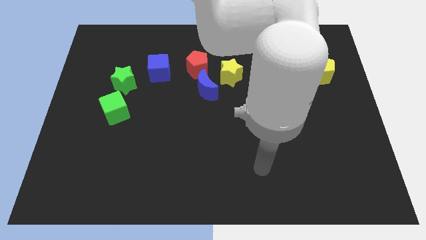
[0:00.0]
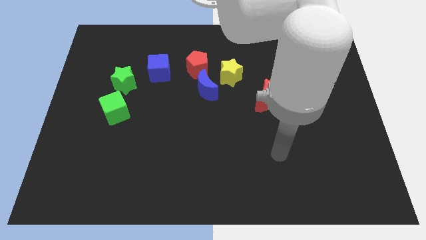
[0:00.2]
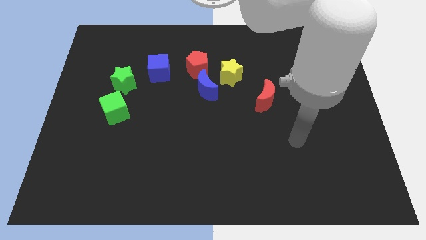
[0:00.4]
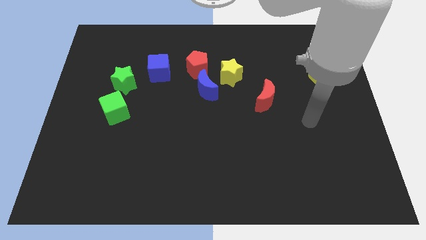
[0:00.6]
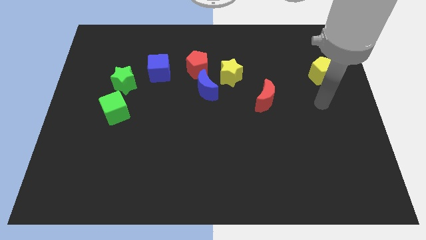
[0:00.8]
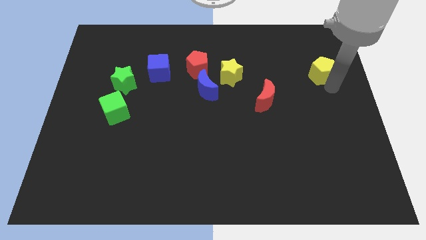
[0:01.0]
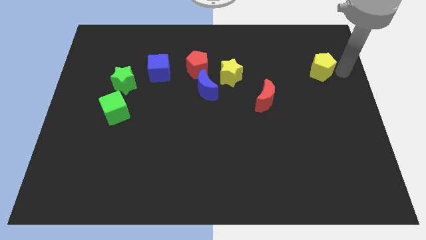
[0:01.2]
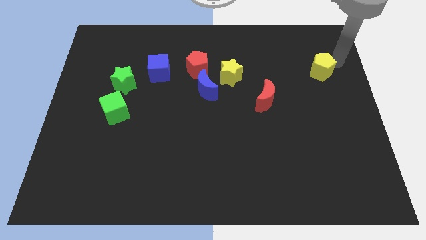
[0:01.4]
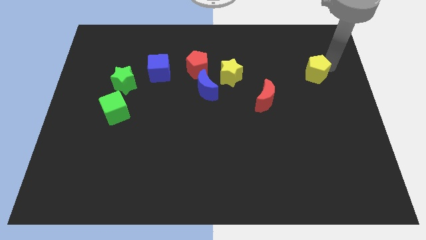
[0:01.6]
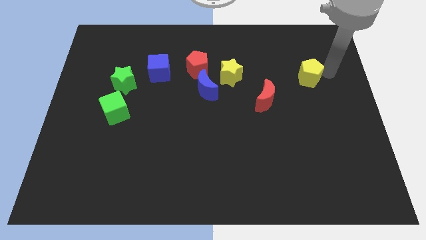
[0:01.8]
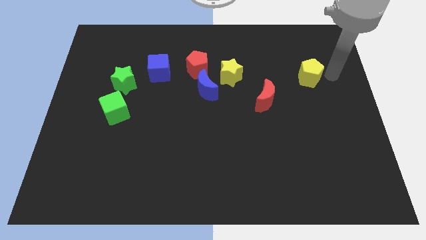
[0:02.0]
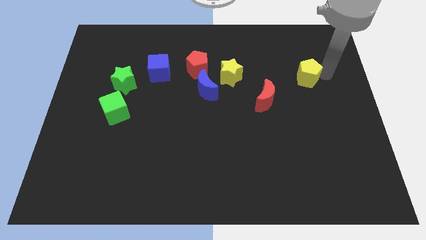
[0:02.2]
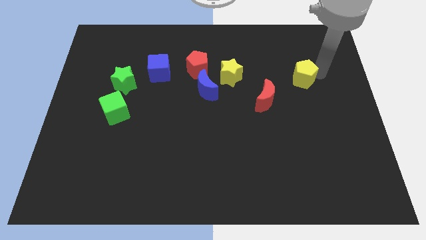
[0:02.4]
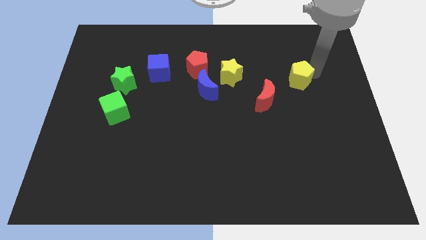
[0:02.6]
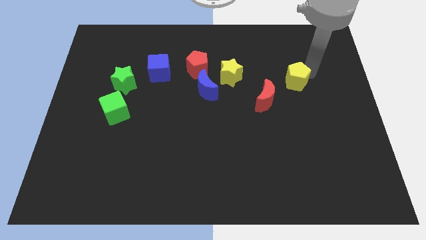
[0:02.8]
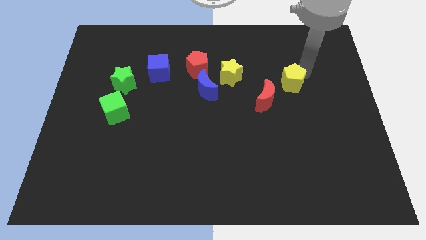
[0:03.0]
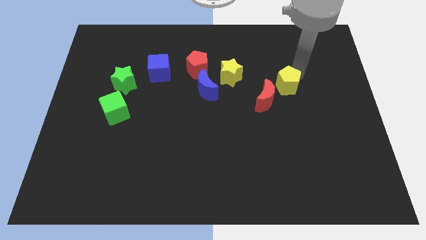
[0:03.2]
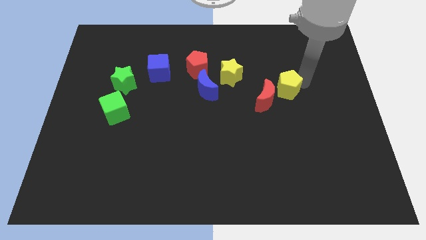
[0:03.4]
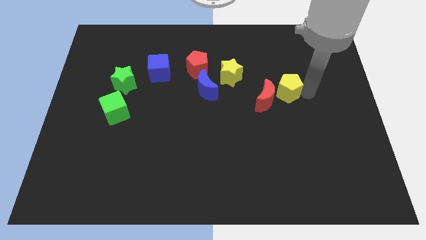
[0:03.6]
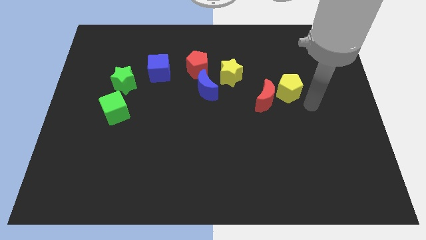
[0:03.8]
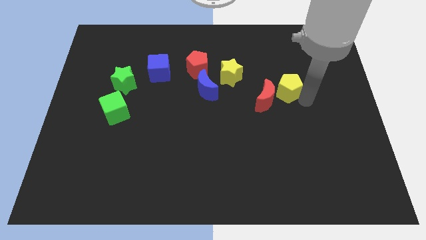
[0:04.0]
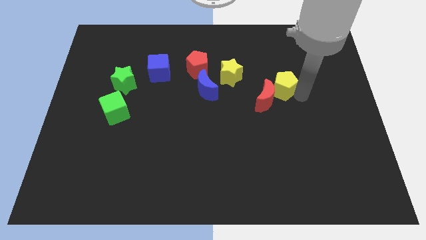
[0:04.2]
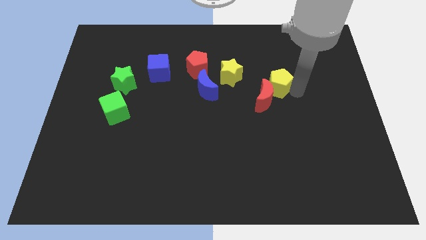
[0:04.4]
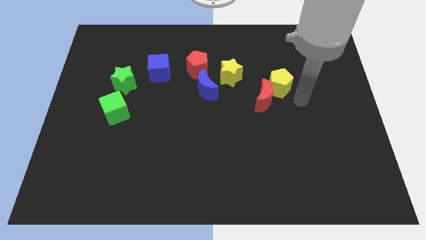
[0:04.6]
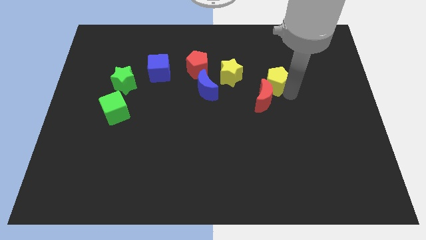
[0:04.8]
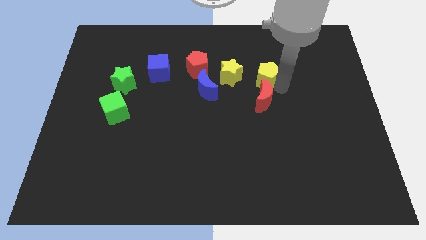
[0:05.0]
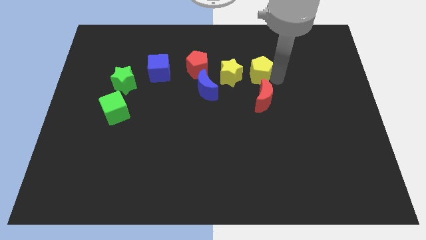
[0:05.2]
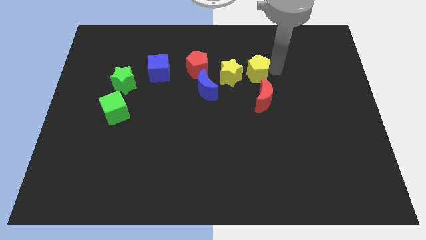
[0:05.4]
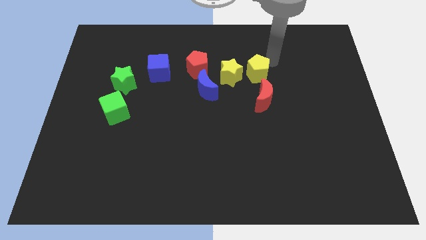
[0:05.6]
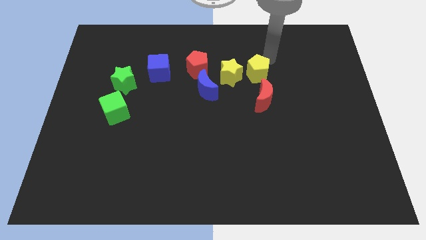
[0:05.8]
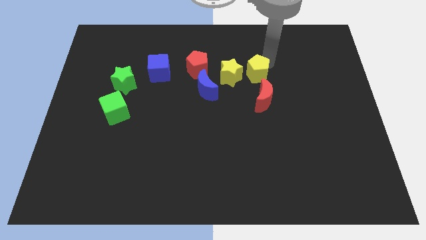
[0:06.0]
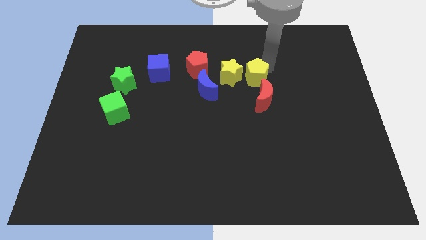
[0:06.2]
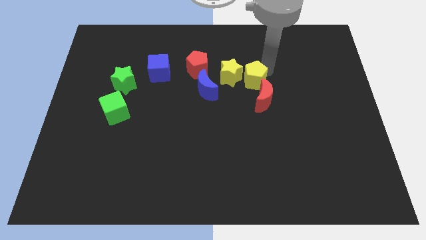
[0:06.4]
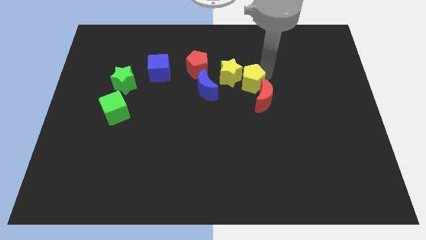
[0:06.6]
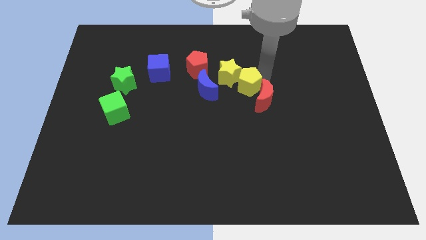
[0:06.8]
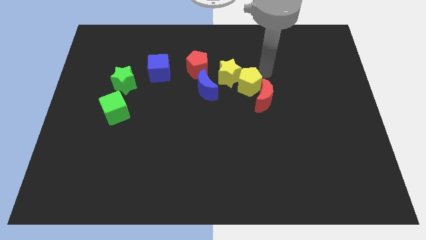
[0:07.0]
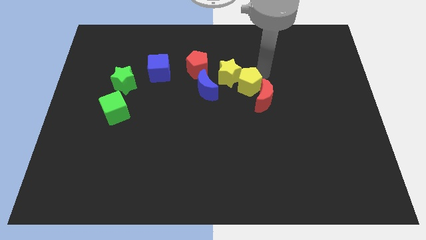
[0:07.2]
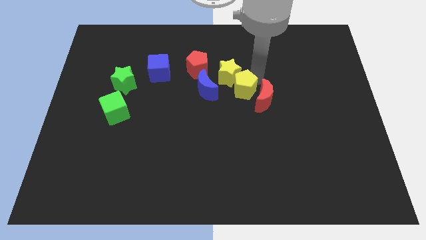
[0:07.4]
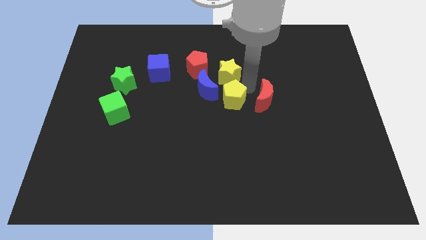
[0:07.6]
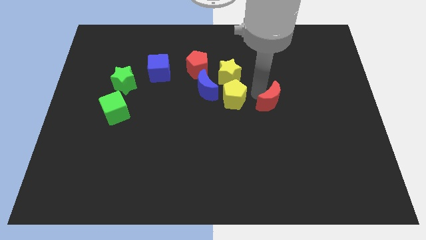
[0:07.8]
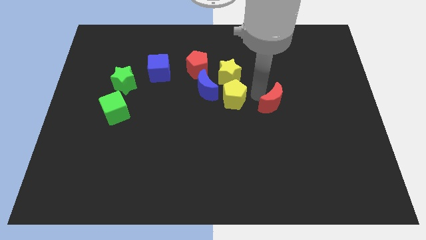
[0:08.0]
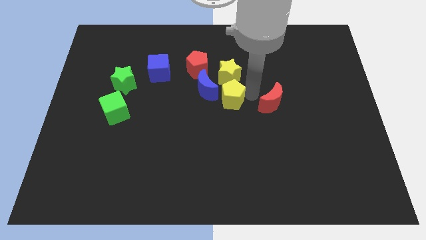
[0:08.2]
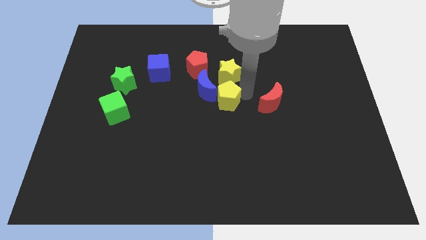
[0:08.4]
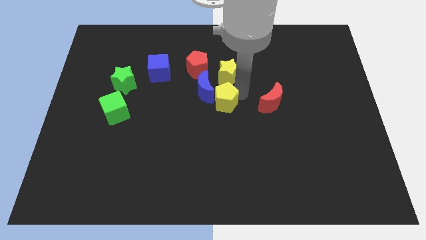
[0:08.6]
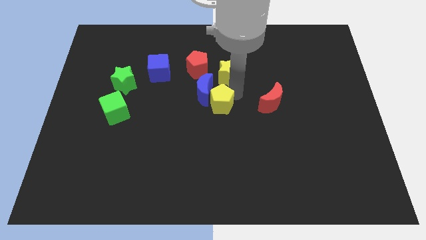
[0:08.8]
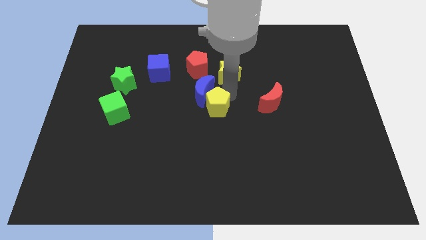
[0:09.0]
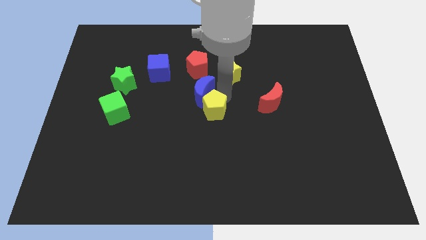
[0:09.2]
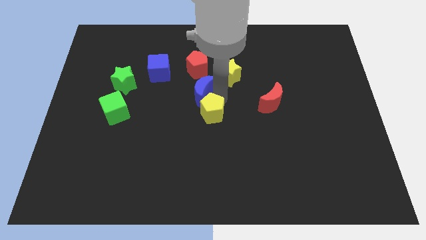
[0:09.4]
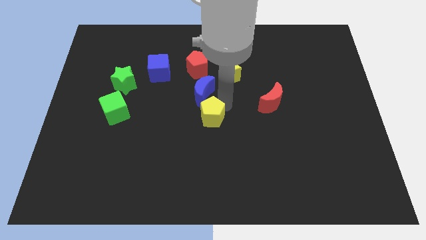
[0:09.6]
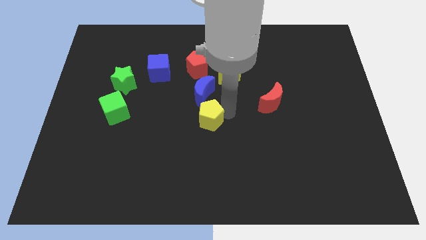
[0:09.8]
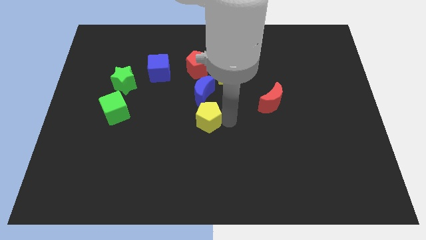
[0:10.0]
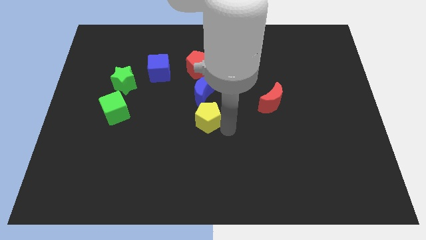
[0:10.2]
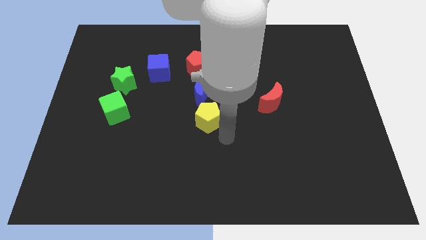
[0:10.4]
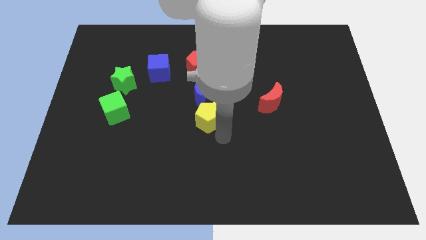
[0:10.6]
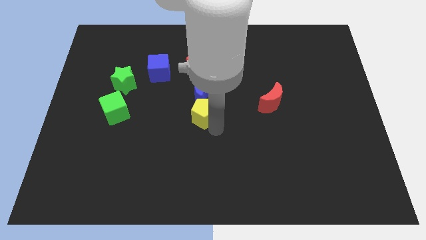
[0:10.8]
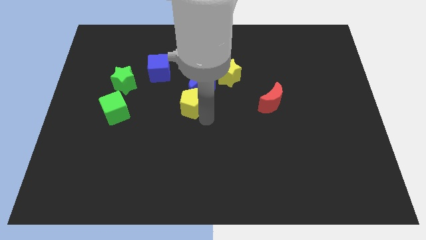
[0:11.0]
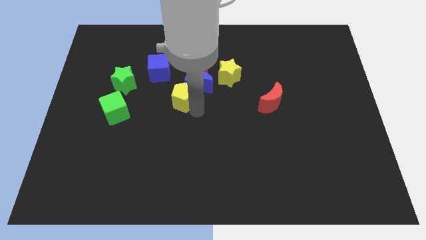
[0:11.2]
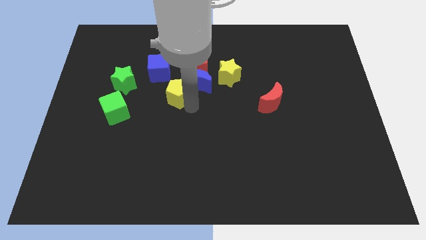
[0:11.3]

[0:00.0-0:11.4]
put the yellow pentagon to the right of the green star

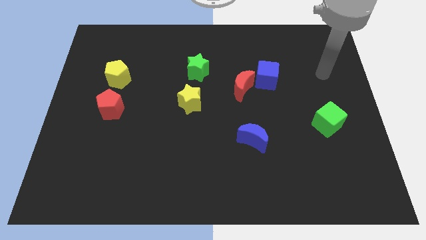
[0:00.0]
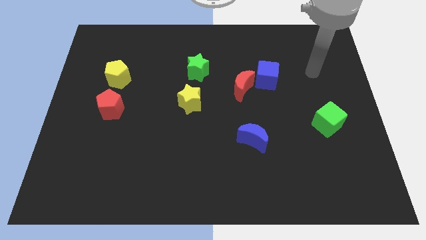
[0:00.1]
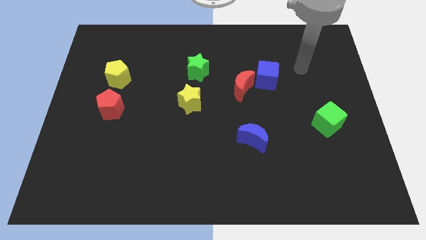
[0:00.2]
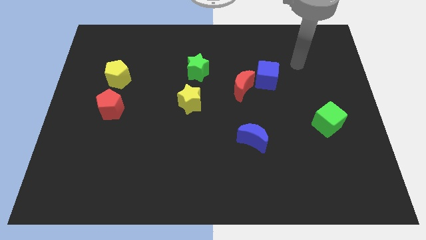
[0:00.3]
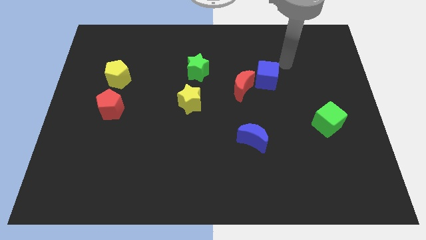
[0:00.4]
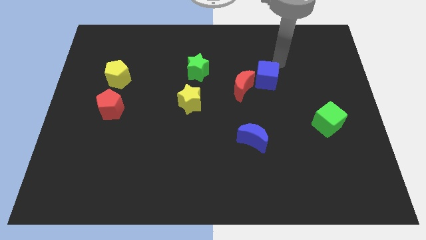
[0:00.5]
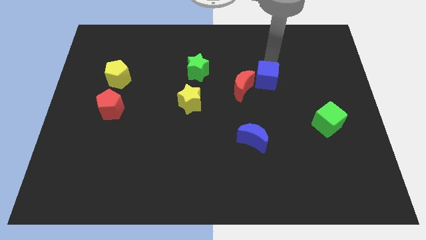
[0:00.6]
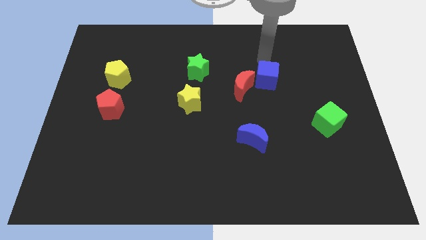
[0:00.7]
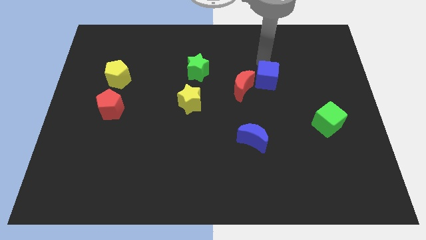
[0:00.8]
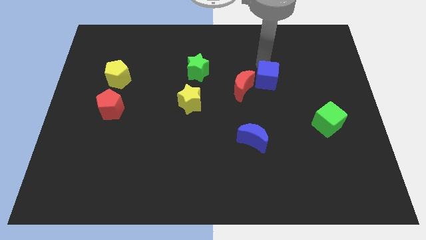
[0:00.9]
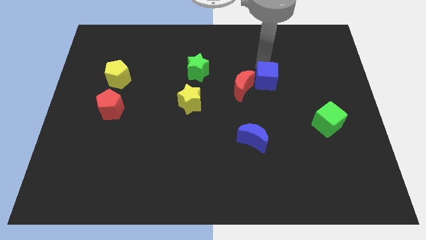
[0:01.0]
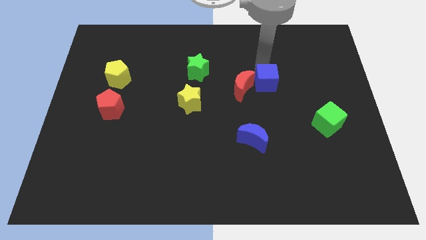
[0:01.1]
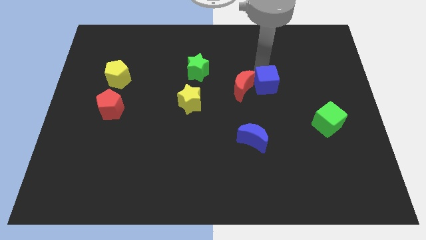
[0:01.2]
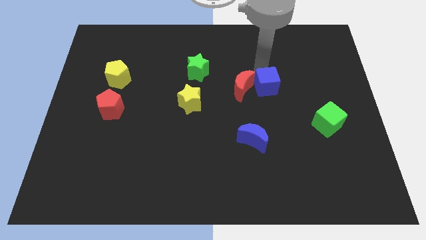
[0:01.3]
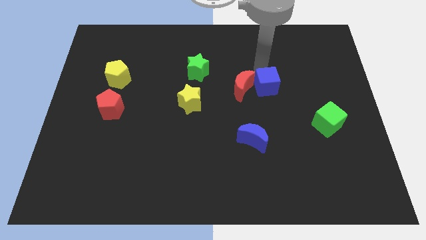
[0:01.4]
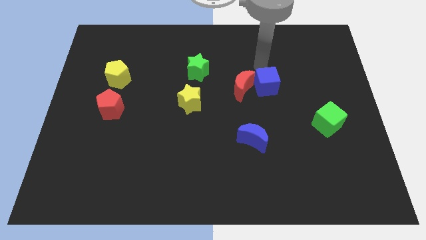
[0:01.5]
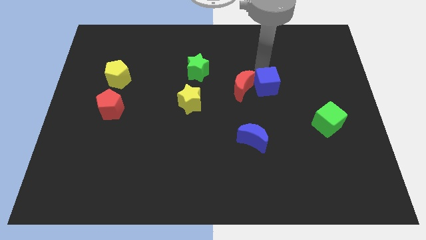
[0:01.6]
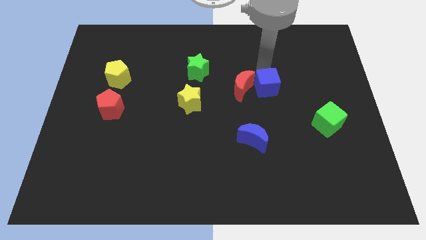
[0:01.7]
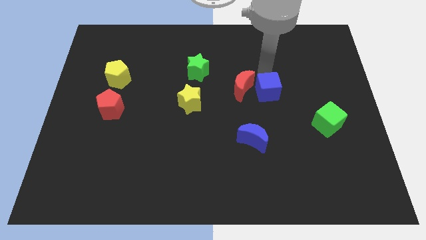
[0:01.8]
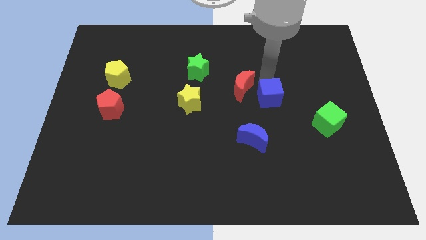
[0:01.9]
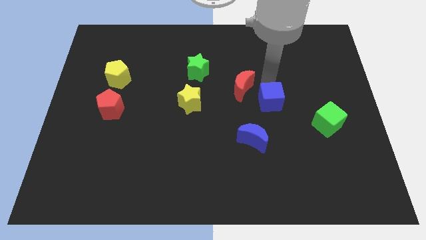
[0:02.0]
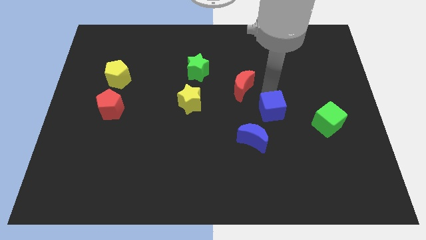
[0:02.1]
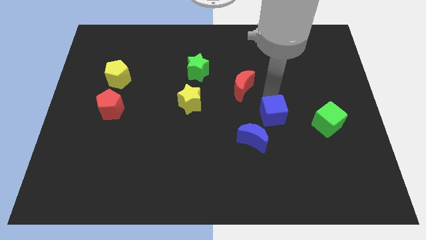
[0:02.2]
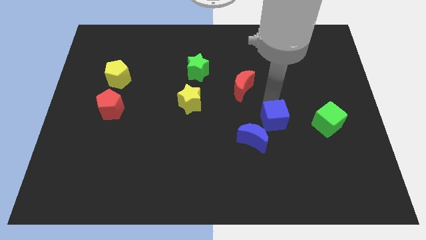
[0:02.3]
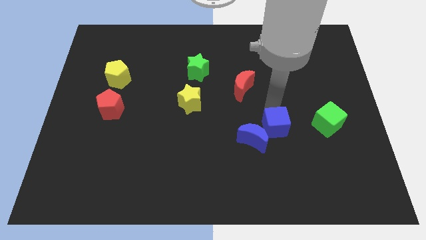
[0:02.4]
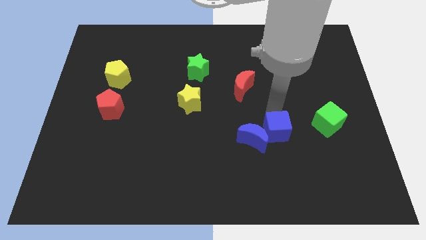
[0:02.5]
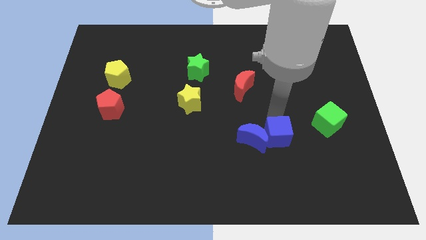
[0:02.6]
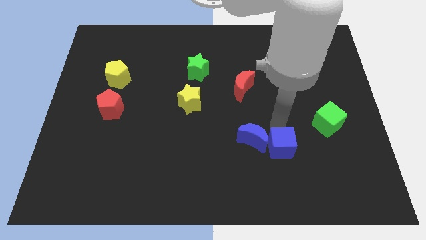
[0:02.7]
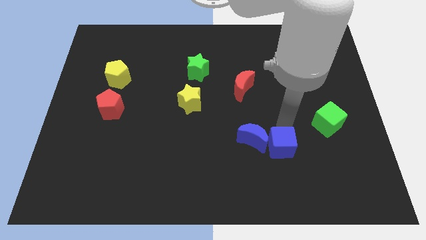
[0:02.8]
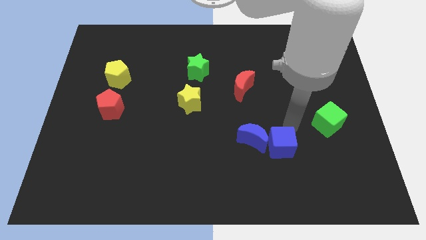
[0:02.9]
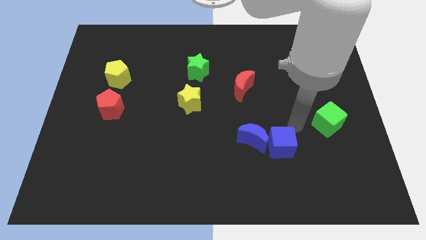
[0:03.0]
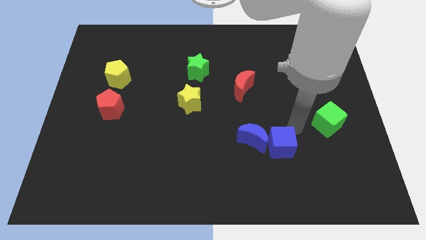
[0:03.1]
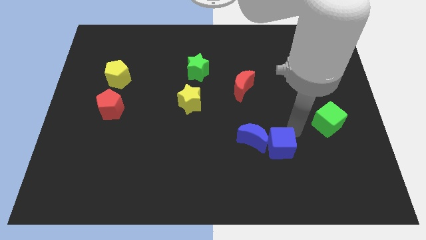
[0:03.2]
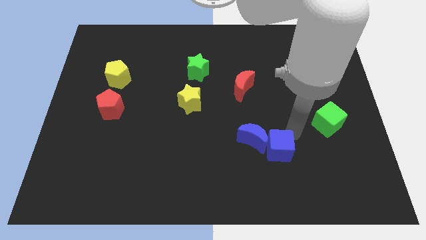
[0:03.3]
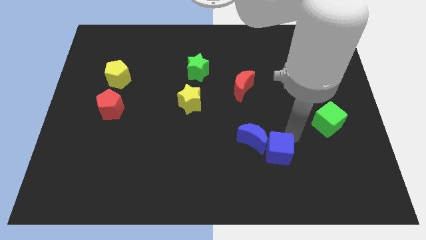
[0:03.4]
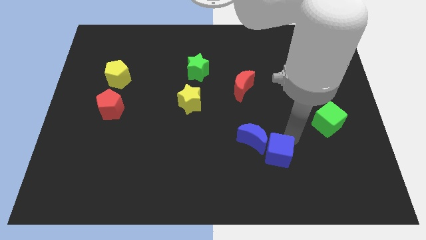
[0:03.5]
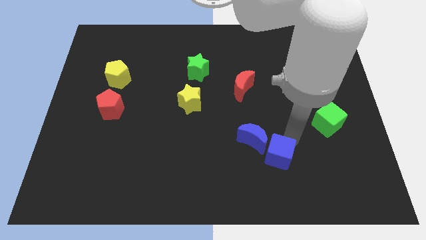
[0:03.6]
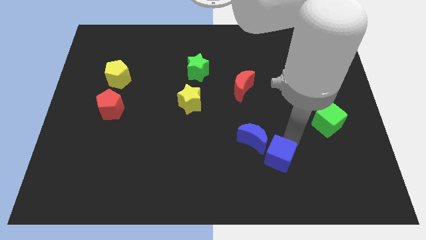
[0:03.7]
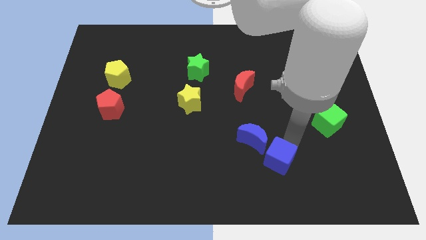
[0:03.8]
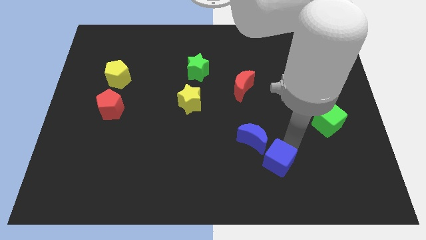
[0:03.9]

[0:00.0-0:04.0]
slide the blue cube to the bottom side of the blue moon
